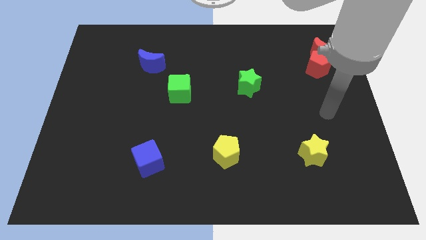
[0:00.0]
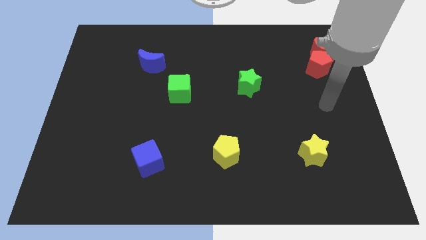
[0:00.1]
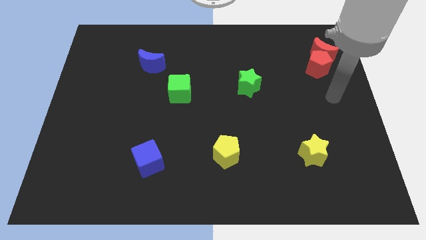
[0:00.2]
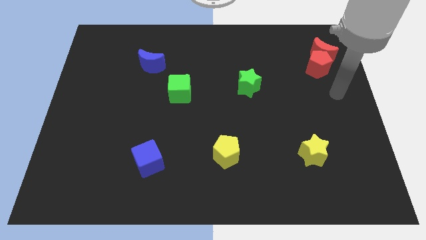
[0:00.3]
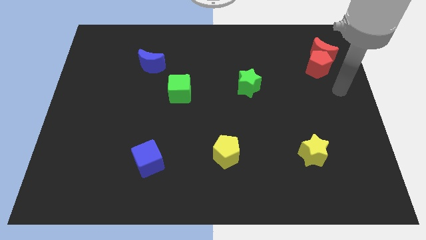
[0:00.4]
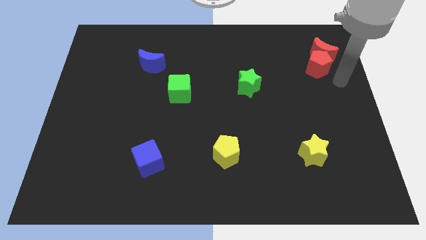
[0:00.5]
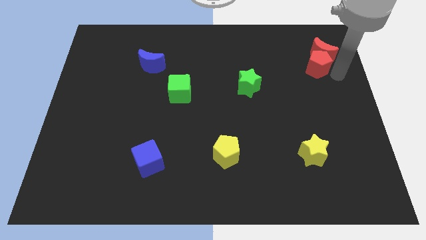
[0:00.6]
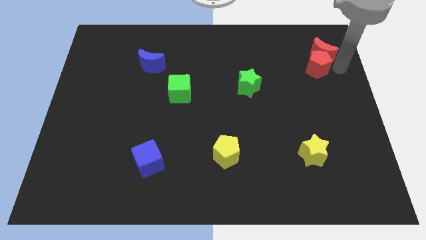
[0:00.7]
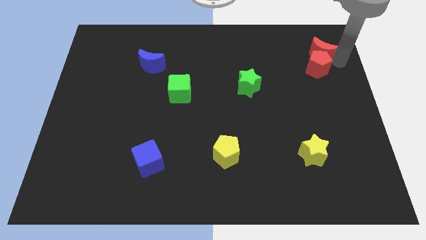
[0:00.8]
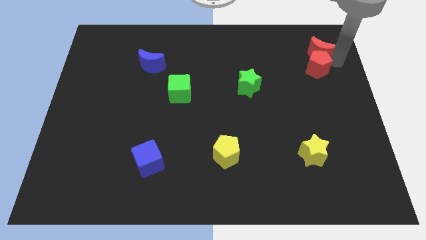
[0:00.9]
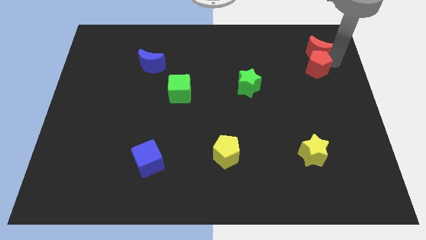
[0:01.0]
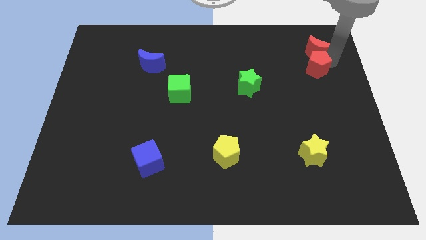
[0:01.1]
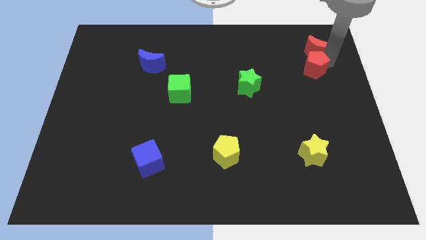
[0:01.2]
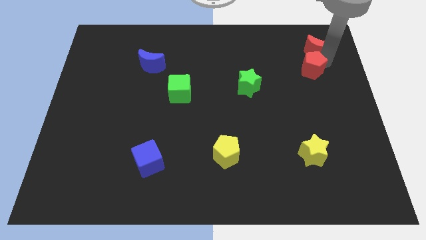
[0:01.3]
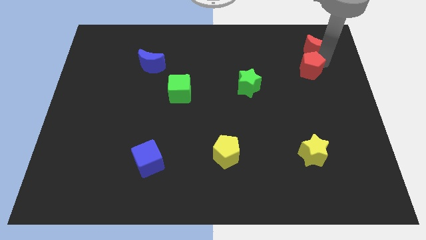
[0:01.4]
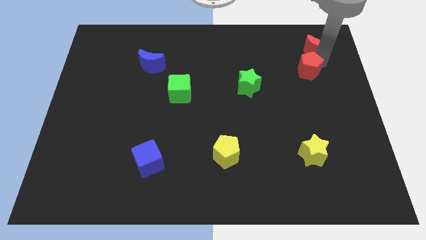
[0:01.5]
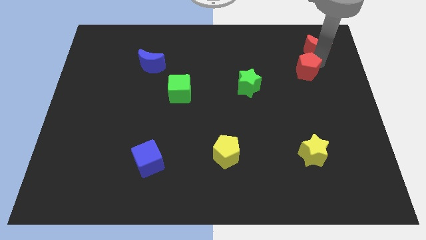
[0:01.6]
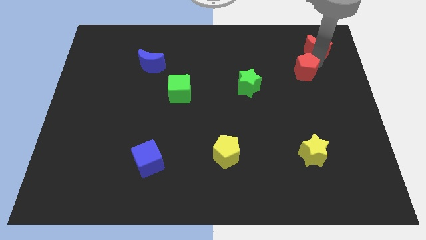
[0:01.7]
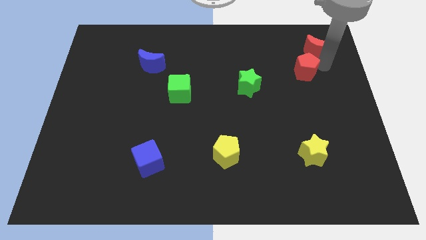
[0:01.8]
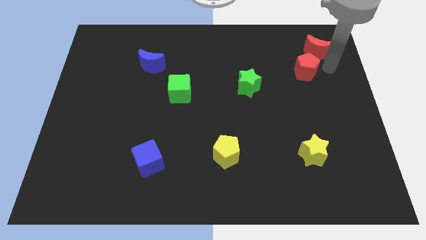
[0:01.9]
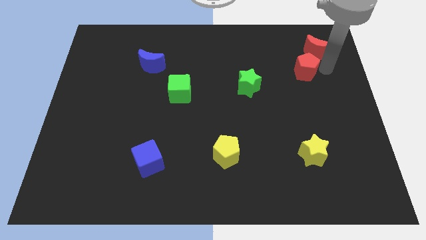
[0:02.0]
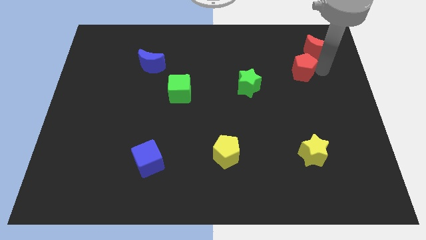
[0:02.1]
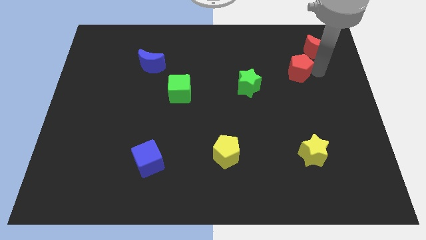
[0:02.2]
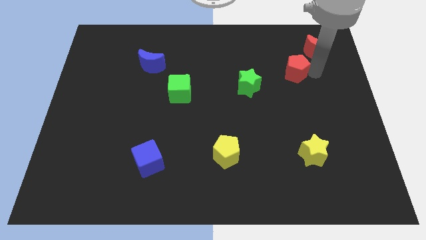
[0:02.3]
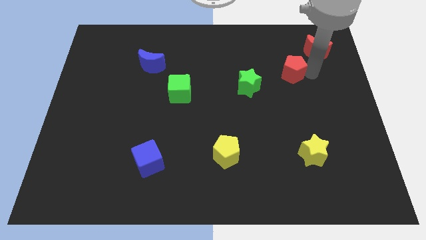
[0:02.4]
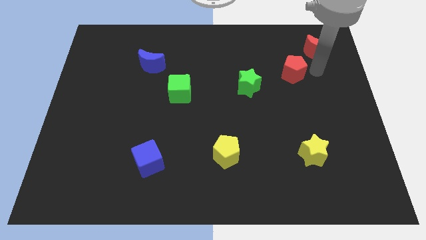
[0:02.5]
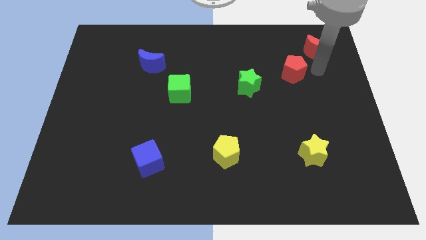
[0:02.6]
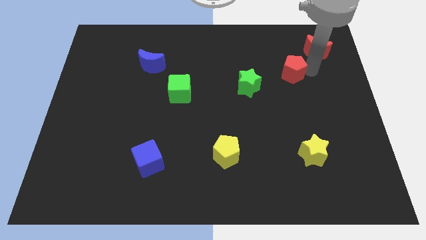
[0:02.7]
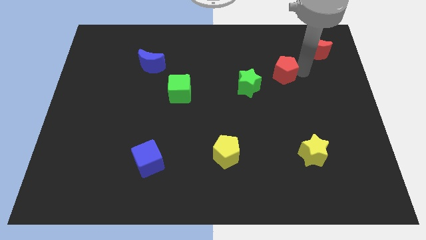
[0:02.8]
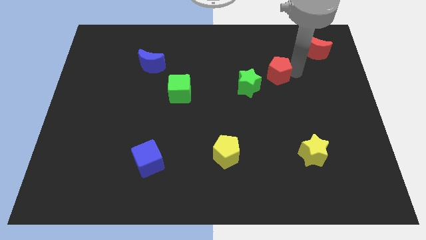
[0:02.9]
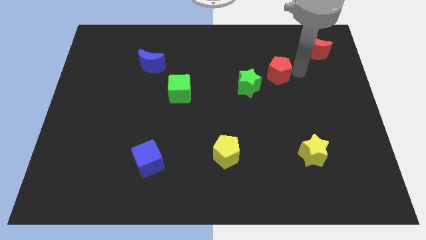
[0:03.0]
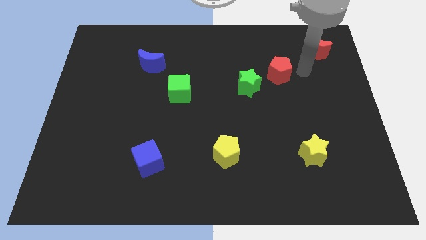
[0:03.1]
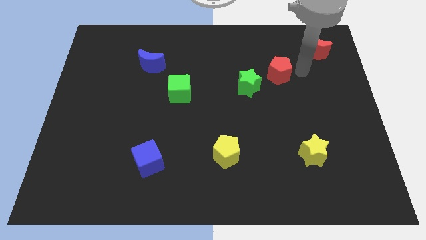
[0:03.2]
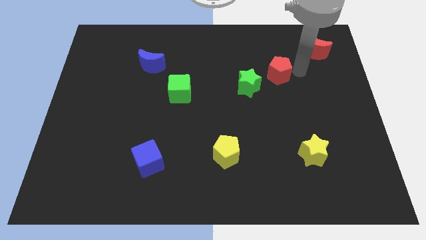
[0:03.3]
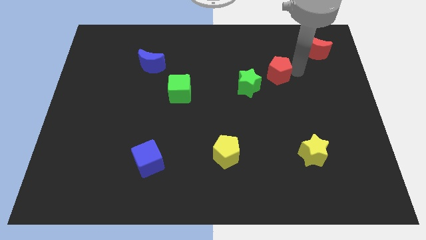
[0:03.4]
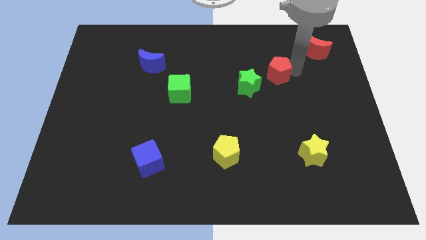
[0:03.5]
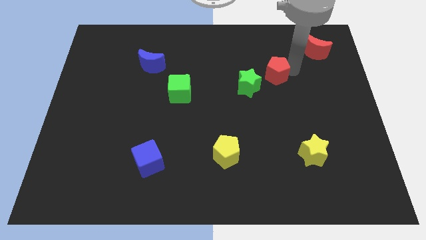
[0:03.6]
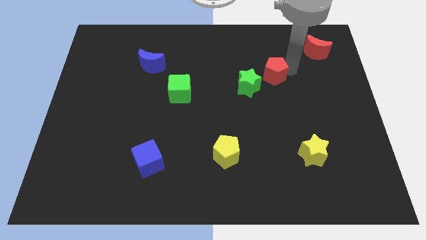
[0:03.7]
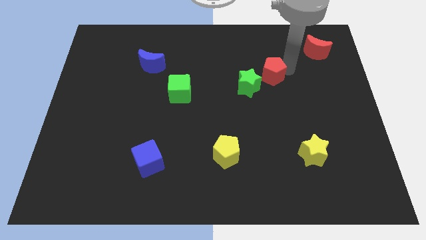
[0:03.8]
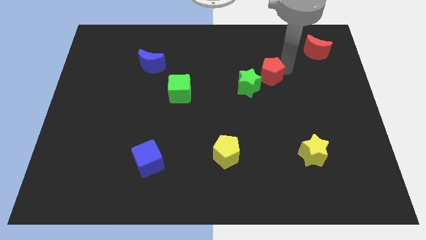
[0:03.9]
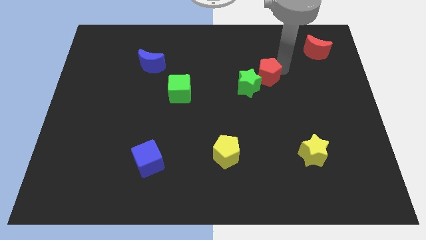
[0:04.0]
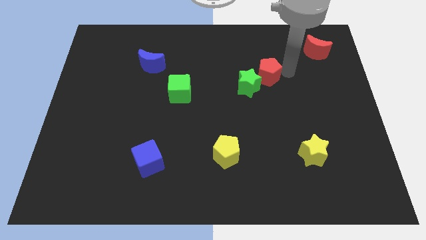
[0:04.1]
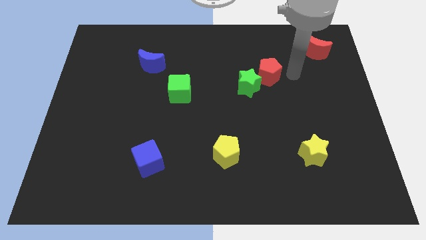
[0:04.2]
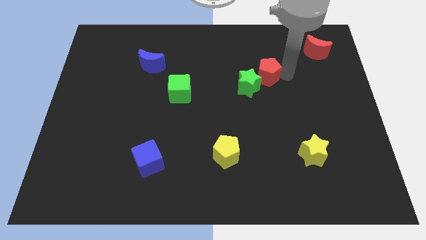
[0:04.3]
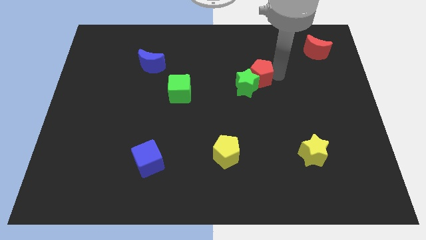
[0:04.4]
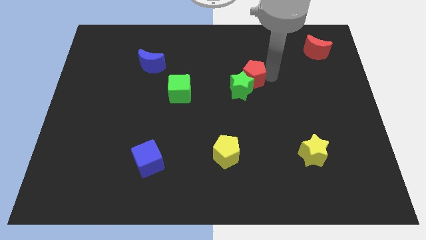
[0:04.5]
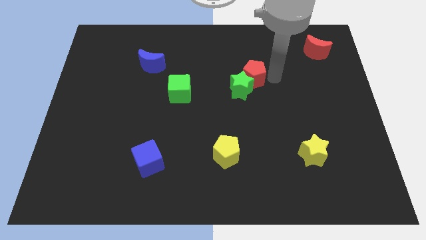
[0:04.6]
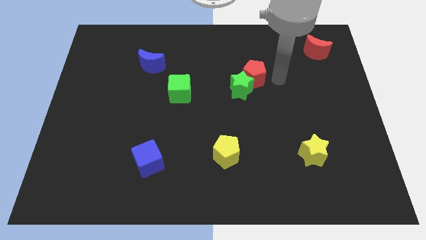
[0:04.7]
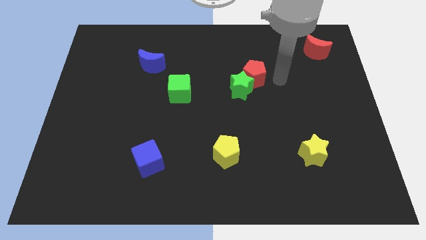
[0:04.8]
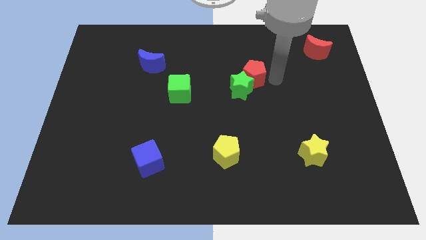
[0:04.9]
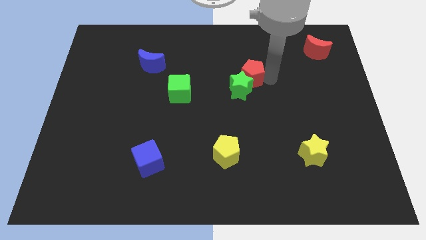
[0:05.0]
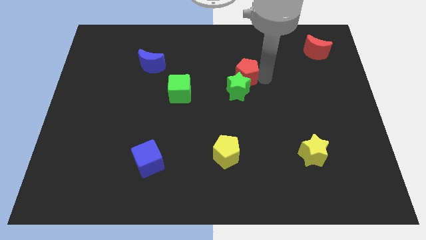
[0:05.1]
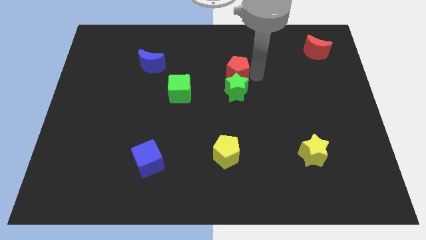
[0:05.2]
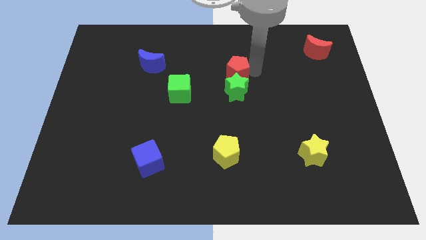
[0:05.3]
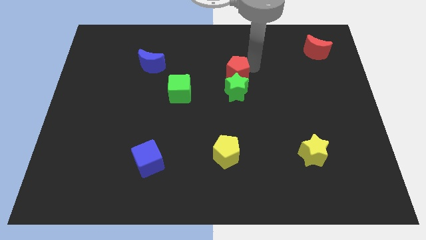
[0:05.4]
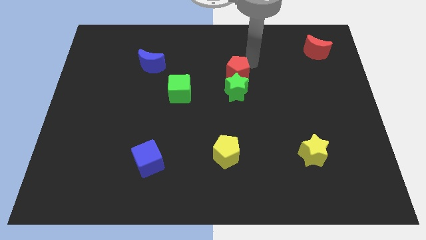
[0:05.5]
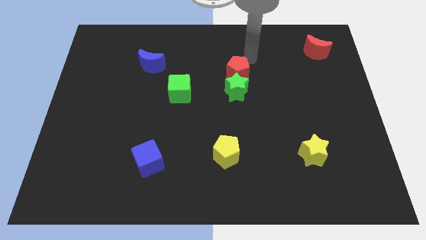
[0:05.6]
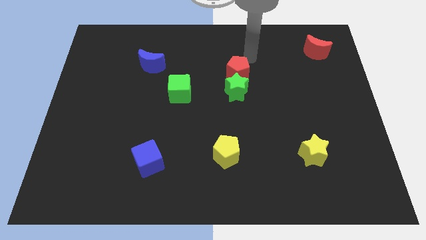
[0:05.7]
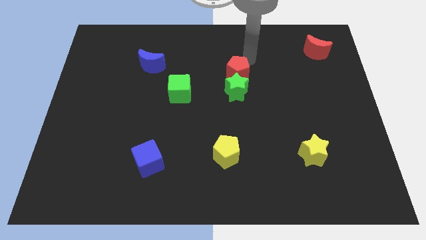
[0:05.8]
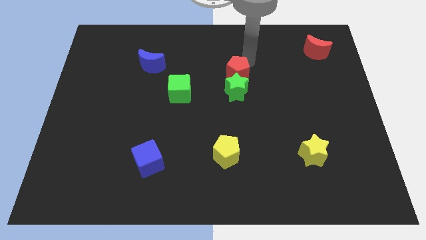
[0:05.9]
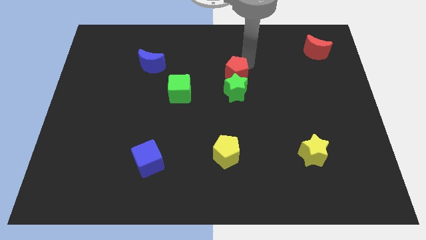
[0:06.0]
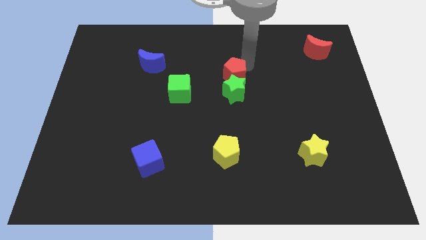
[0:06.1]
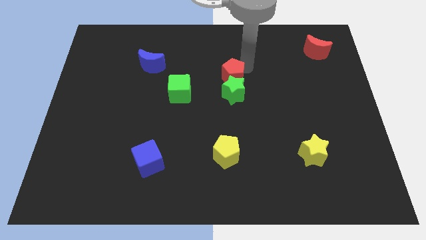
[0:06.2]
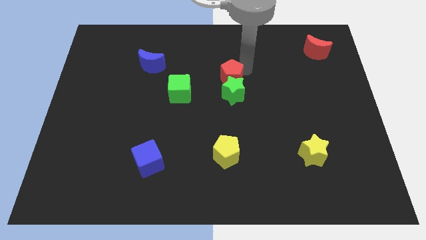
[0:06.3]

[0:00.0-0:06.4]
put the red pentagon to the right side of the green cube

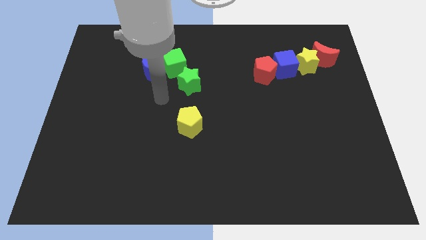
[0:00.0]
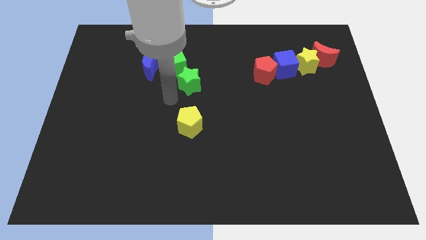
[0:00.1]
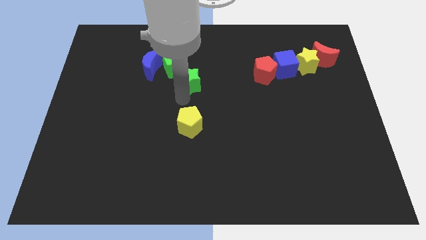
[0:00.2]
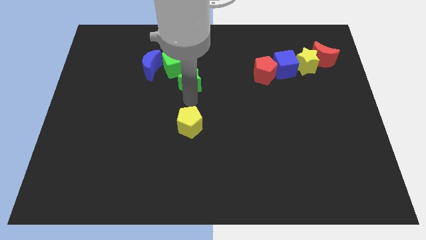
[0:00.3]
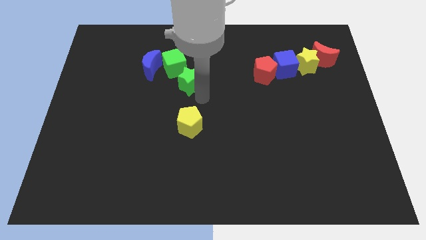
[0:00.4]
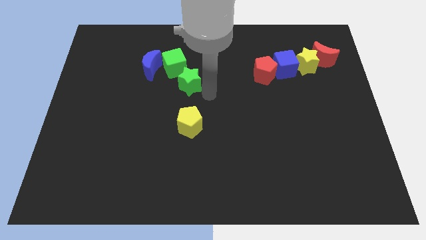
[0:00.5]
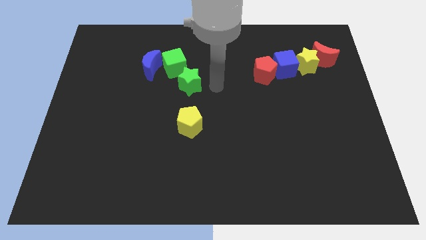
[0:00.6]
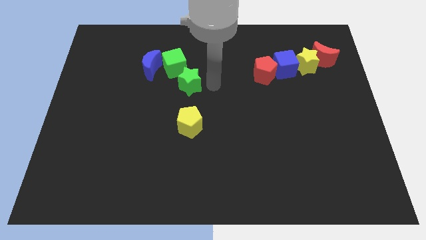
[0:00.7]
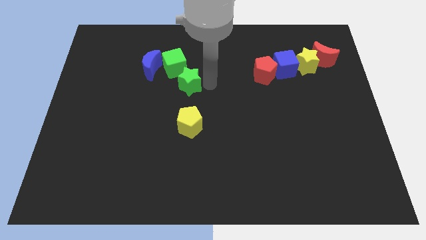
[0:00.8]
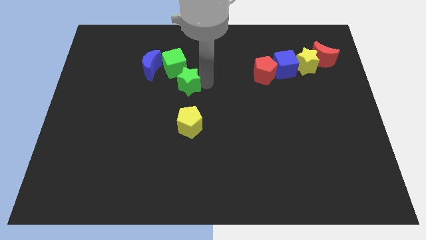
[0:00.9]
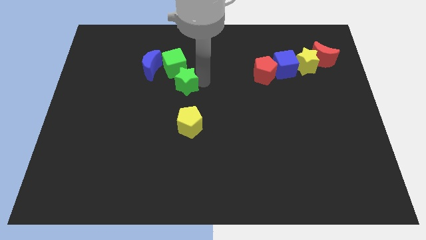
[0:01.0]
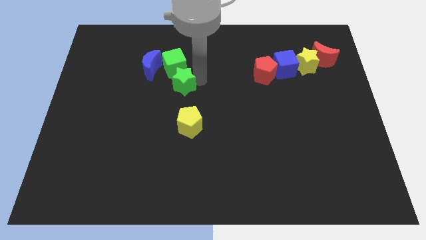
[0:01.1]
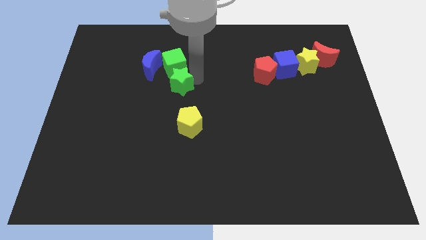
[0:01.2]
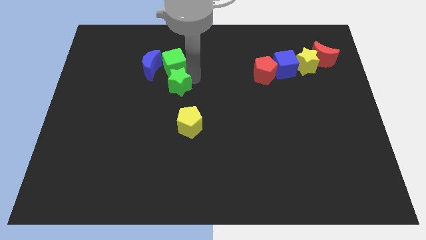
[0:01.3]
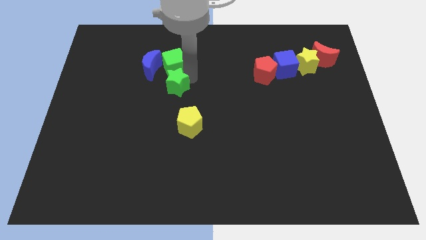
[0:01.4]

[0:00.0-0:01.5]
move the green star diagonally down and to the left of the green cube
